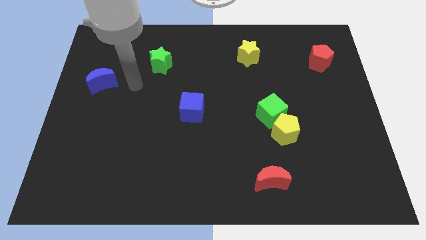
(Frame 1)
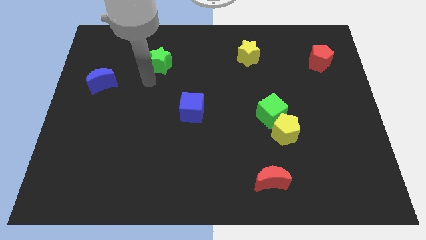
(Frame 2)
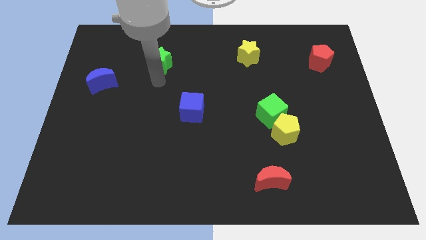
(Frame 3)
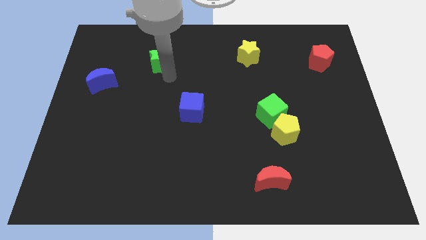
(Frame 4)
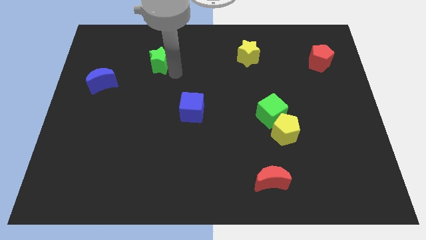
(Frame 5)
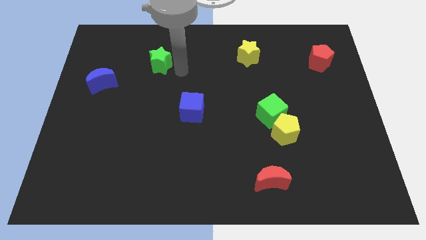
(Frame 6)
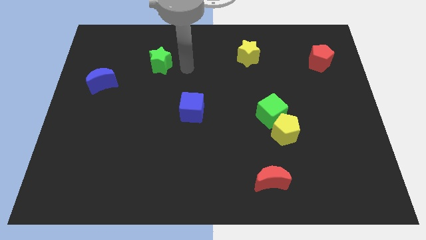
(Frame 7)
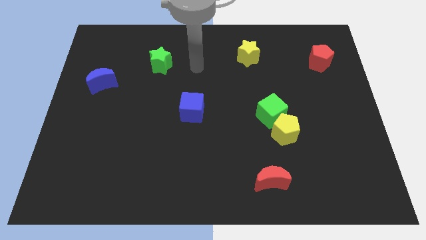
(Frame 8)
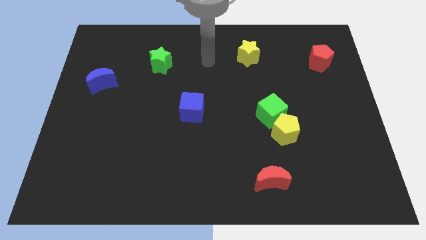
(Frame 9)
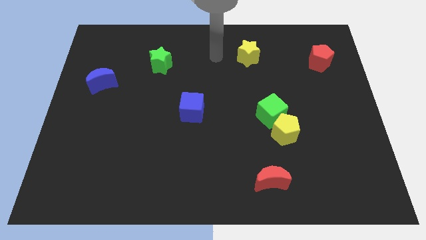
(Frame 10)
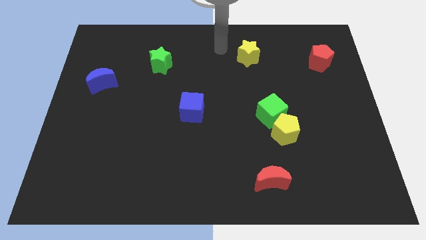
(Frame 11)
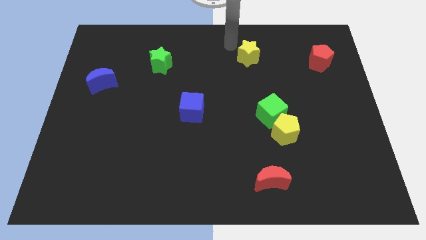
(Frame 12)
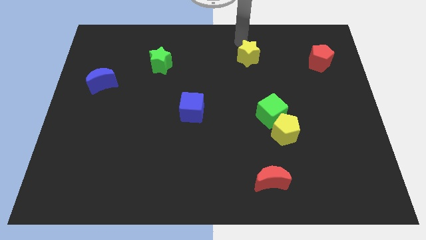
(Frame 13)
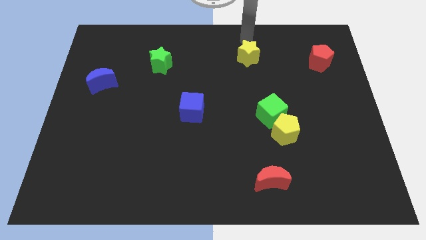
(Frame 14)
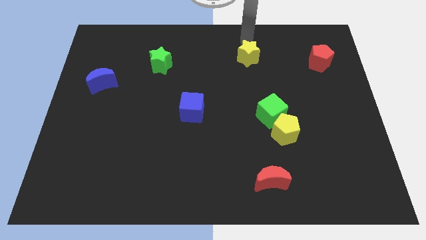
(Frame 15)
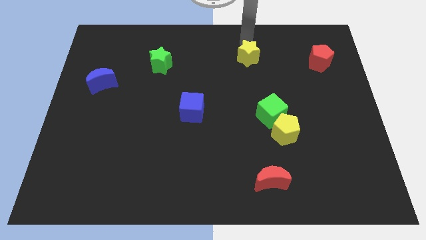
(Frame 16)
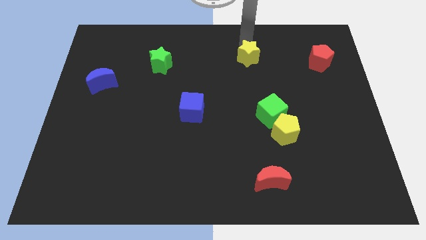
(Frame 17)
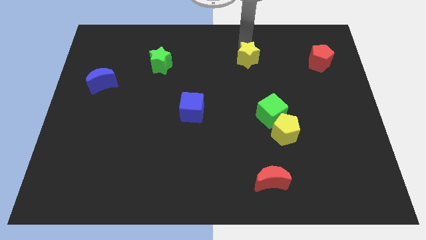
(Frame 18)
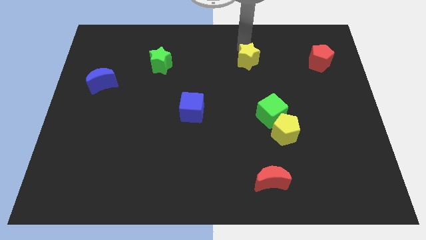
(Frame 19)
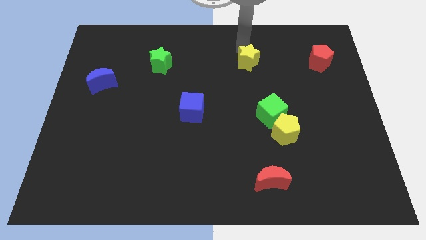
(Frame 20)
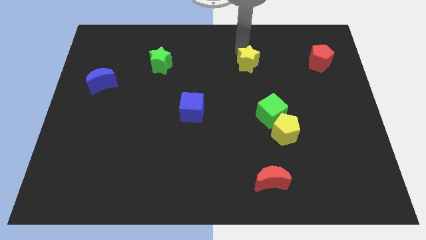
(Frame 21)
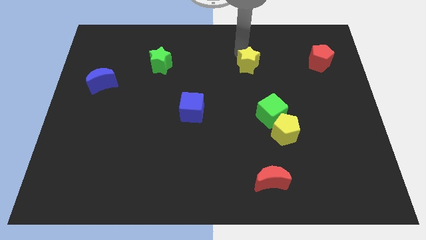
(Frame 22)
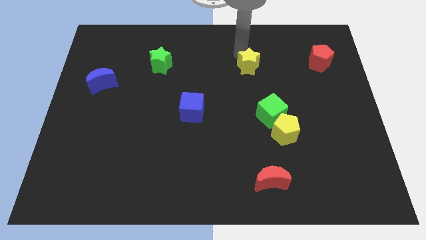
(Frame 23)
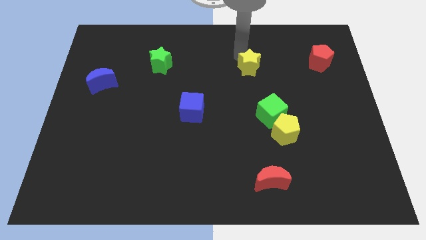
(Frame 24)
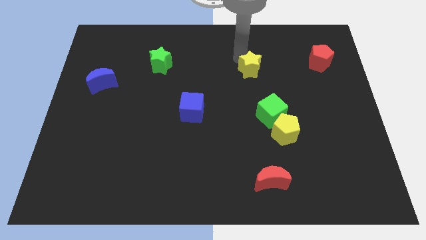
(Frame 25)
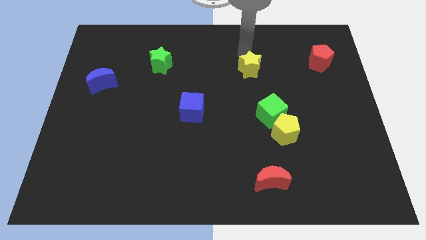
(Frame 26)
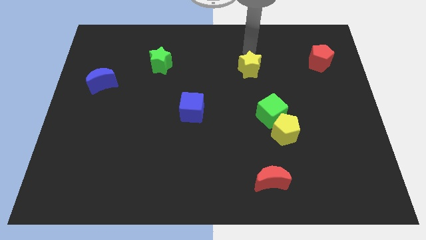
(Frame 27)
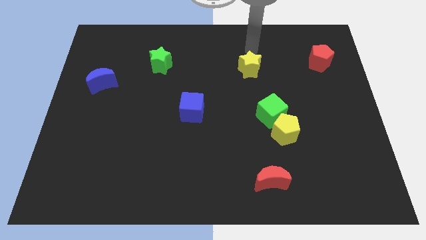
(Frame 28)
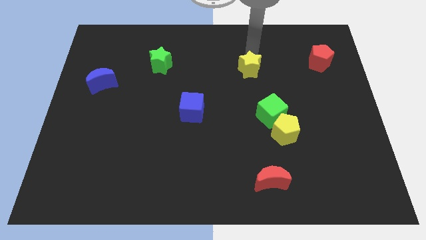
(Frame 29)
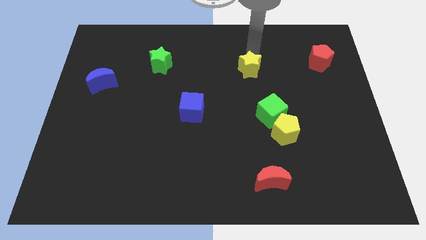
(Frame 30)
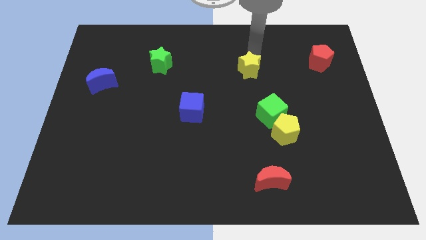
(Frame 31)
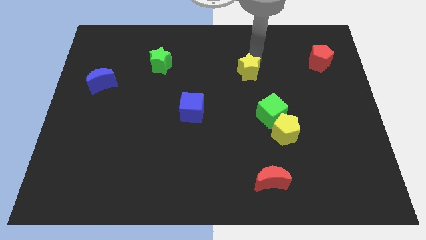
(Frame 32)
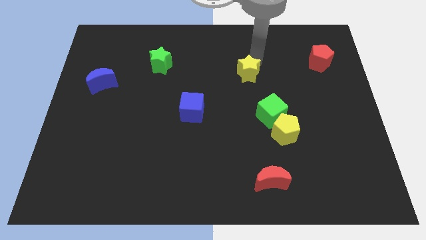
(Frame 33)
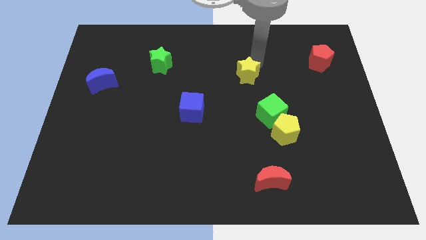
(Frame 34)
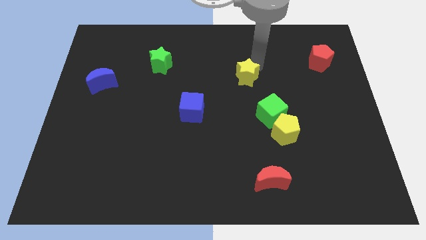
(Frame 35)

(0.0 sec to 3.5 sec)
slide the yellow star down a little bit

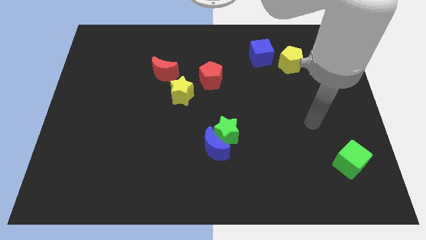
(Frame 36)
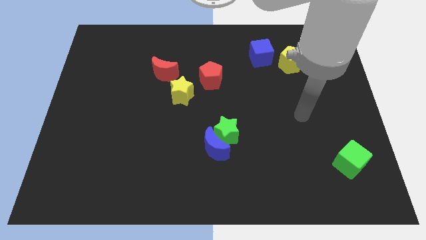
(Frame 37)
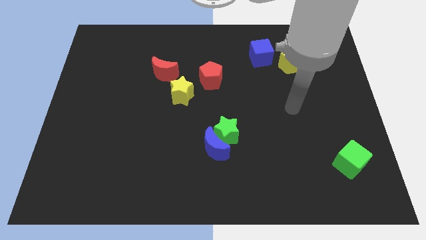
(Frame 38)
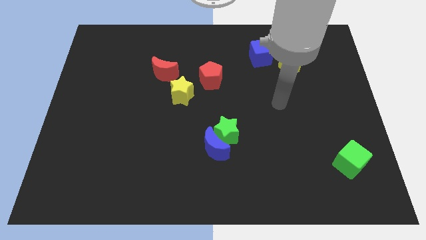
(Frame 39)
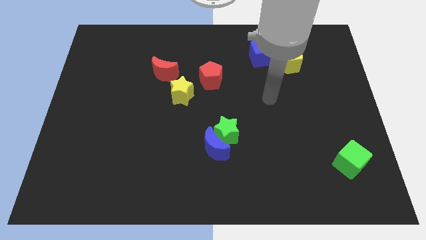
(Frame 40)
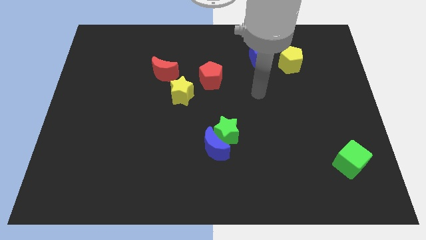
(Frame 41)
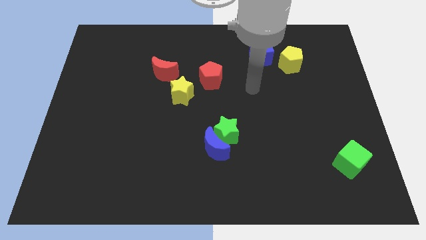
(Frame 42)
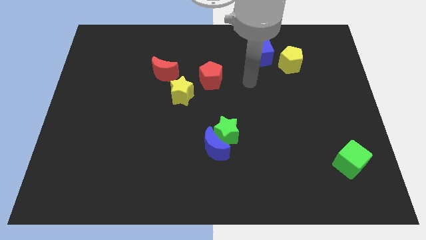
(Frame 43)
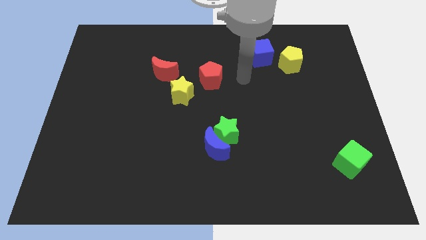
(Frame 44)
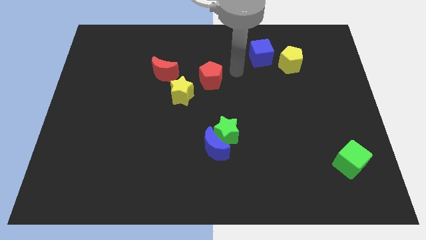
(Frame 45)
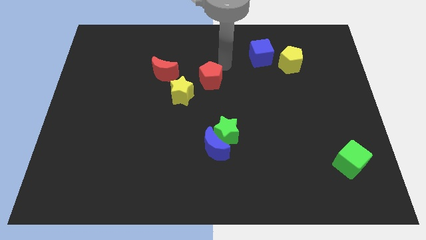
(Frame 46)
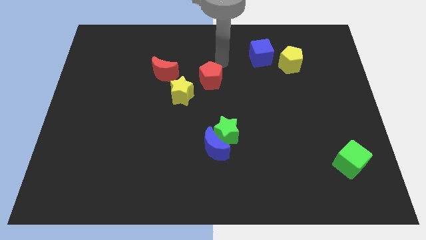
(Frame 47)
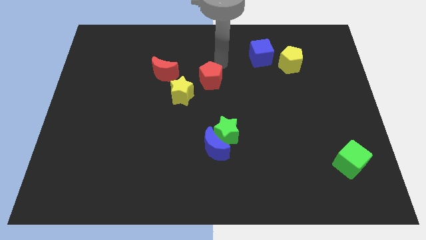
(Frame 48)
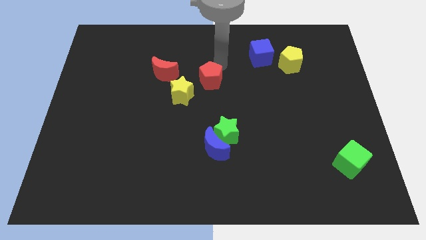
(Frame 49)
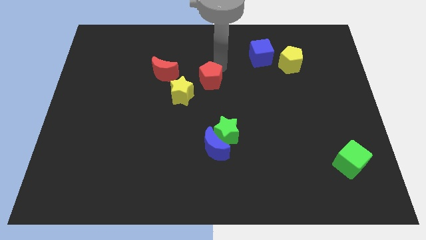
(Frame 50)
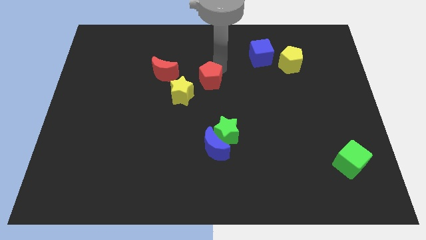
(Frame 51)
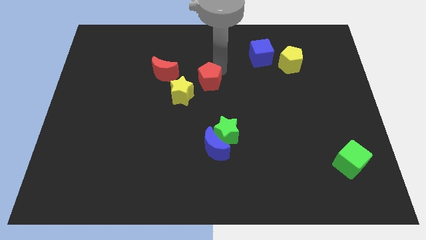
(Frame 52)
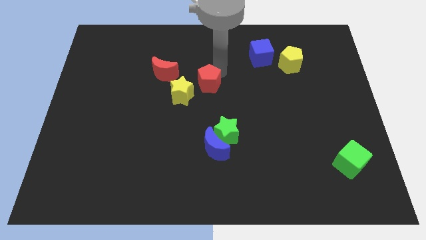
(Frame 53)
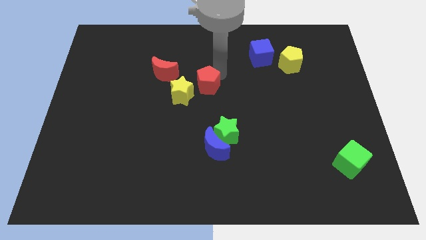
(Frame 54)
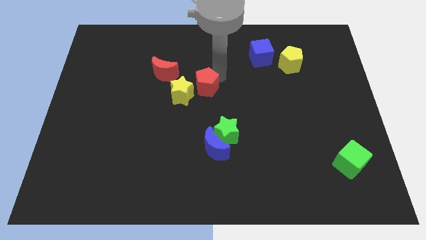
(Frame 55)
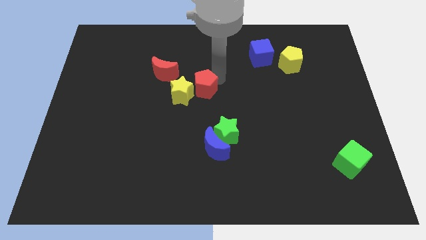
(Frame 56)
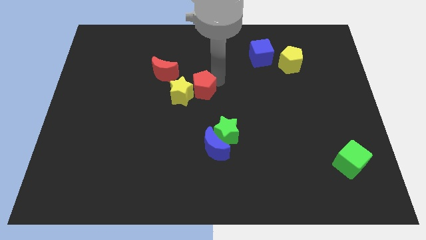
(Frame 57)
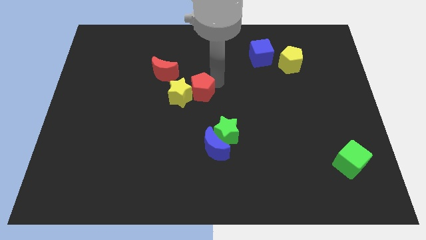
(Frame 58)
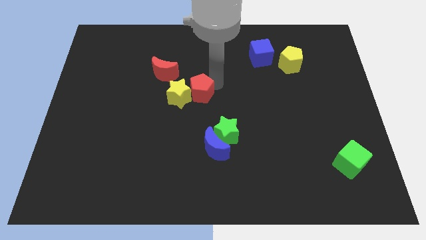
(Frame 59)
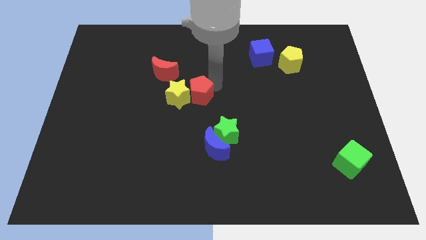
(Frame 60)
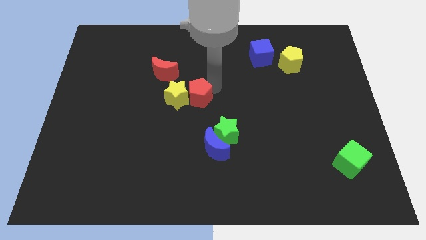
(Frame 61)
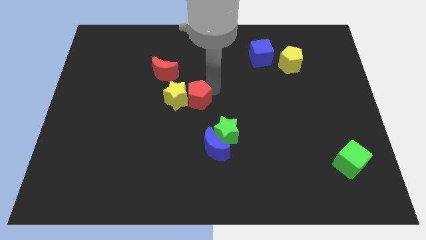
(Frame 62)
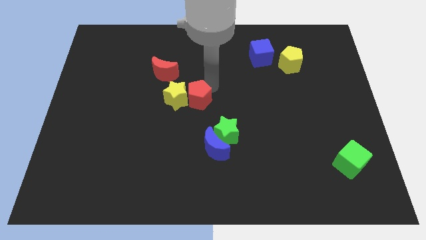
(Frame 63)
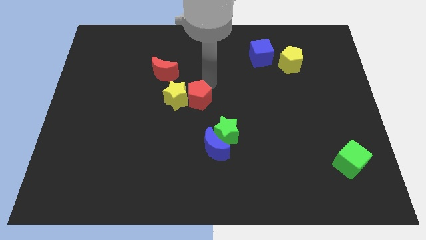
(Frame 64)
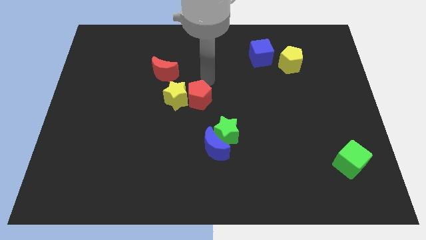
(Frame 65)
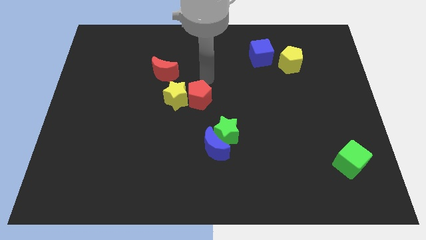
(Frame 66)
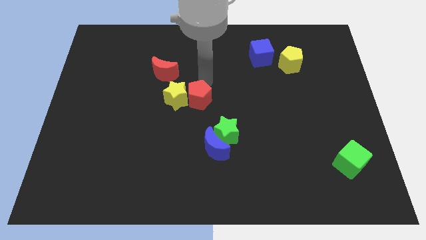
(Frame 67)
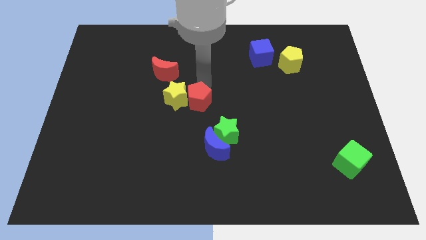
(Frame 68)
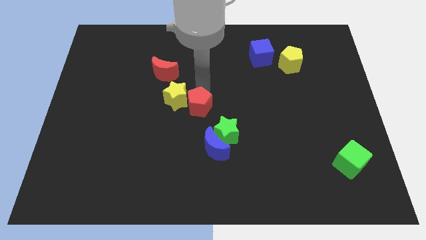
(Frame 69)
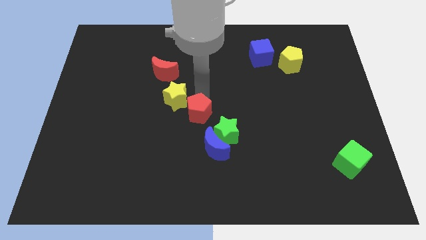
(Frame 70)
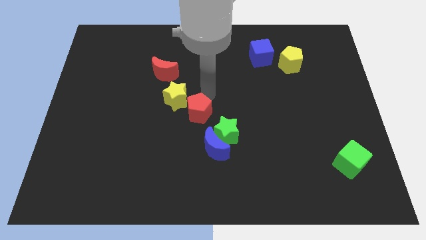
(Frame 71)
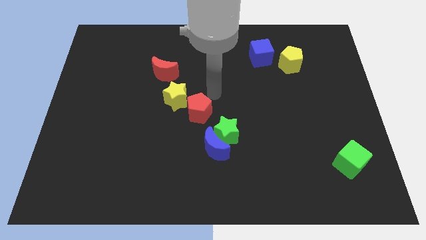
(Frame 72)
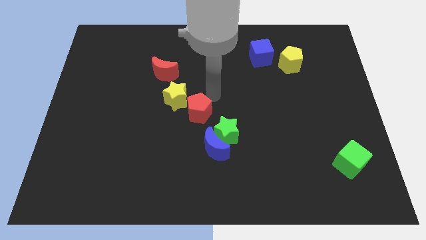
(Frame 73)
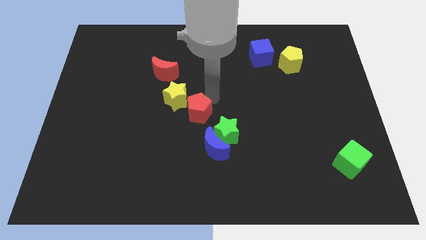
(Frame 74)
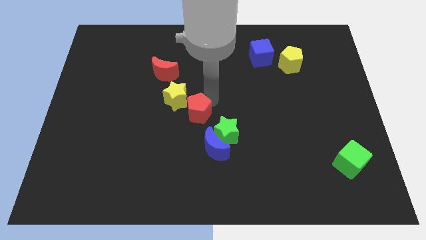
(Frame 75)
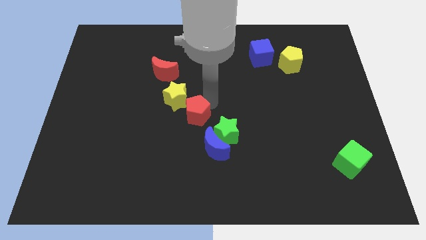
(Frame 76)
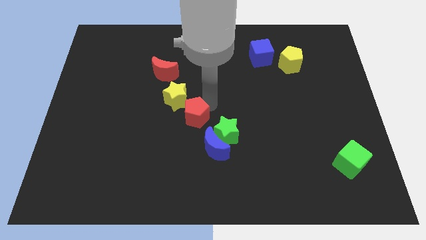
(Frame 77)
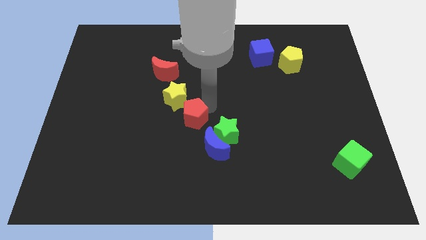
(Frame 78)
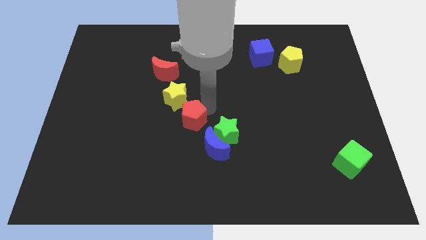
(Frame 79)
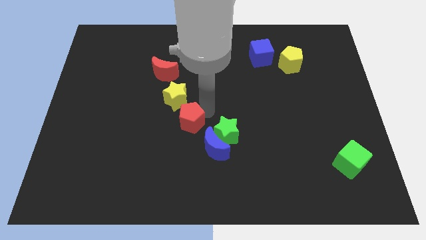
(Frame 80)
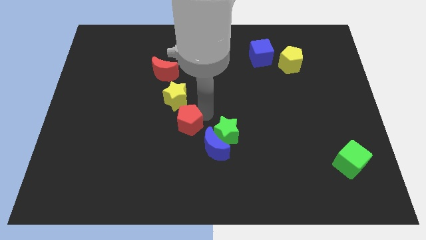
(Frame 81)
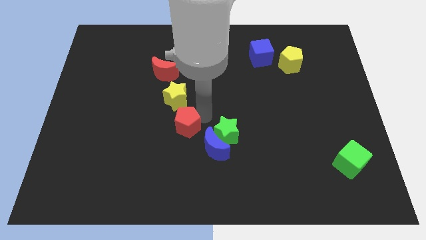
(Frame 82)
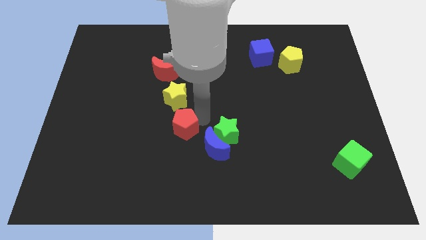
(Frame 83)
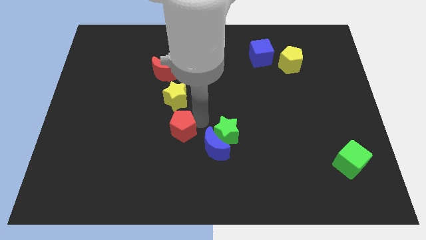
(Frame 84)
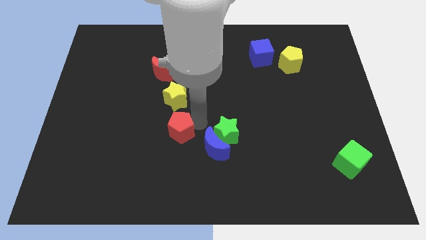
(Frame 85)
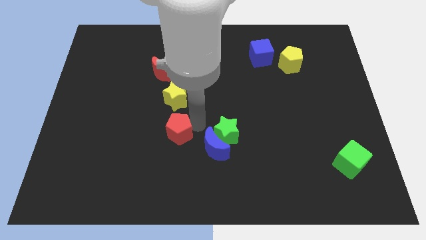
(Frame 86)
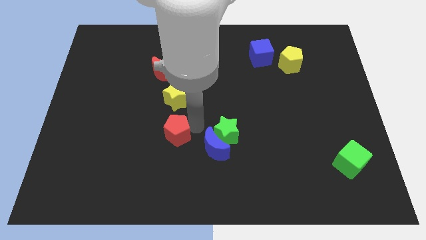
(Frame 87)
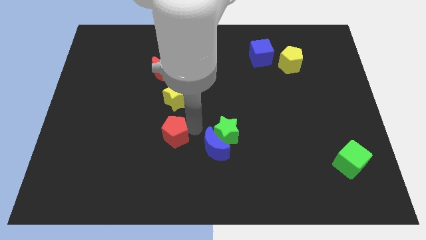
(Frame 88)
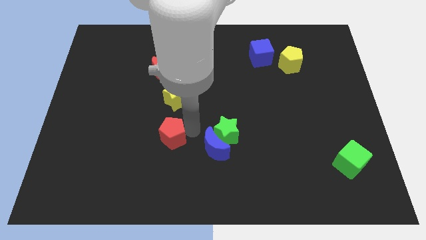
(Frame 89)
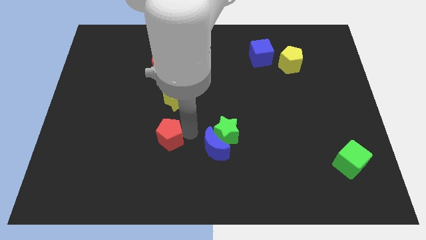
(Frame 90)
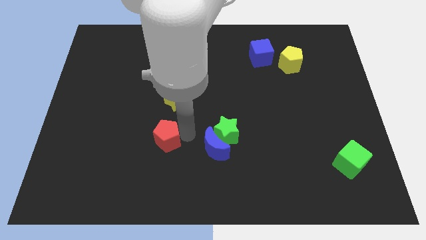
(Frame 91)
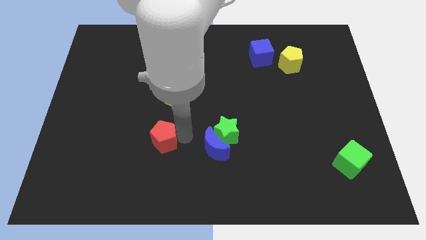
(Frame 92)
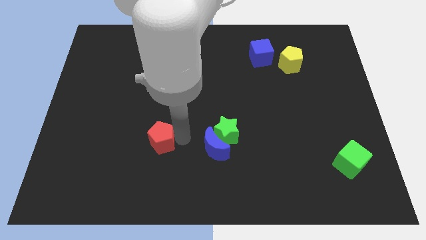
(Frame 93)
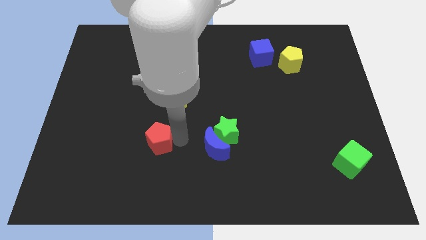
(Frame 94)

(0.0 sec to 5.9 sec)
slide the red pentagon downwards and then left
